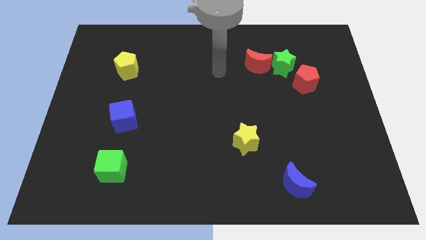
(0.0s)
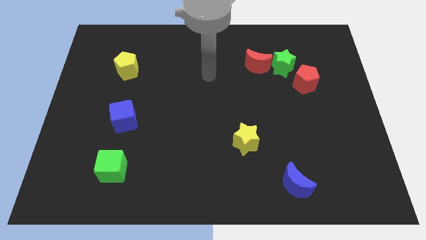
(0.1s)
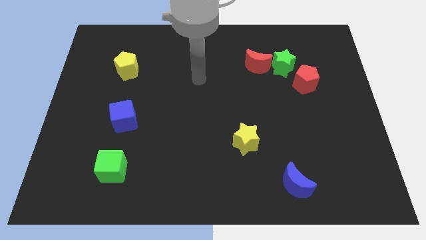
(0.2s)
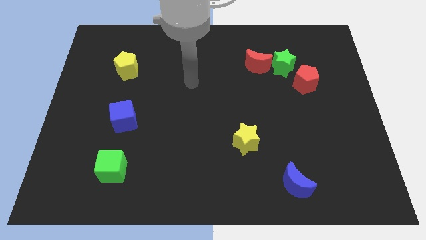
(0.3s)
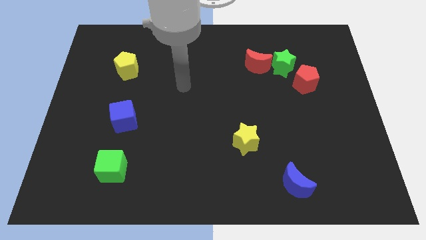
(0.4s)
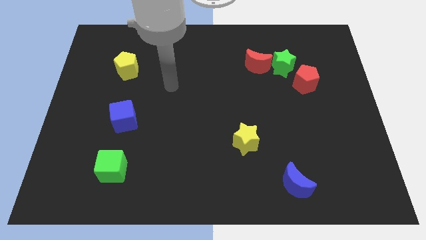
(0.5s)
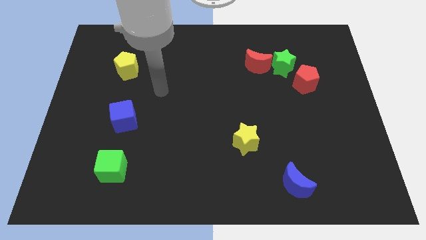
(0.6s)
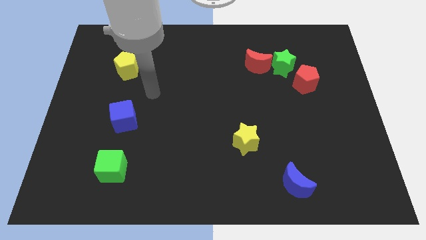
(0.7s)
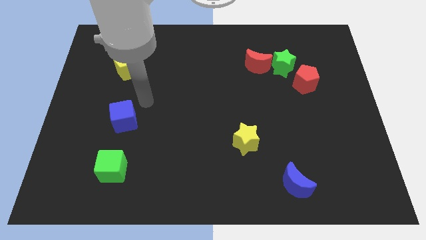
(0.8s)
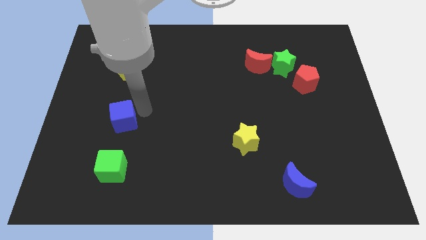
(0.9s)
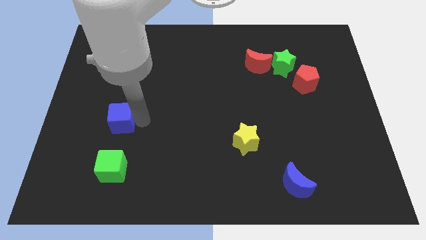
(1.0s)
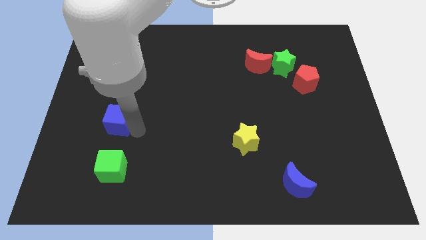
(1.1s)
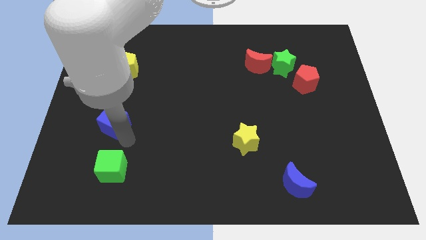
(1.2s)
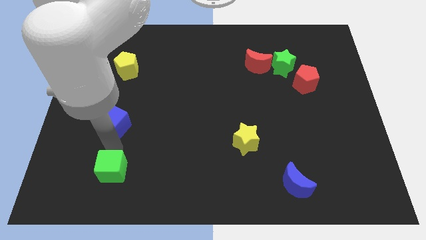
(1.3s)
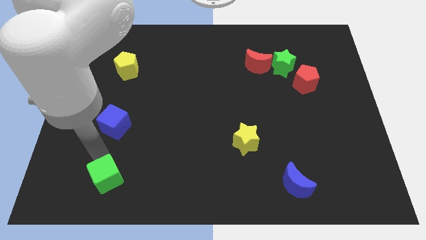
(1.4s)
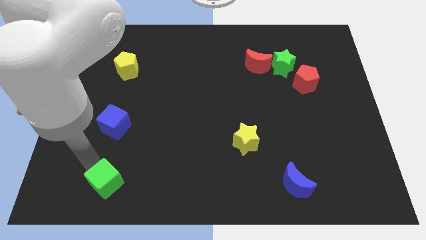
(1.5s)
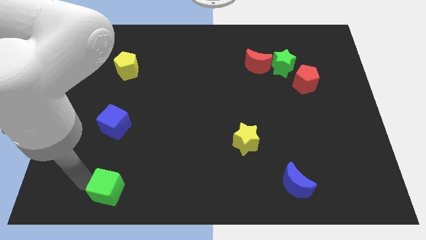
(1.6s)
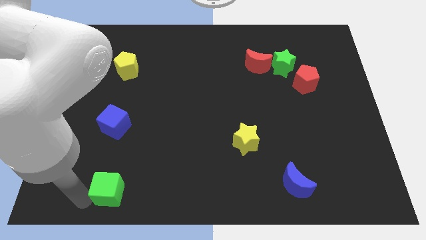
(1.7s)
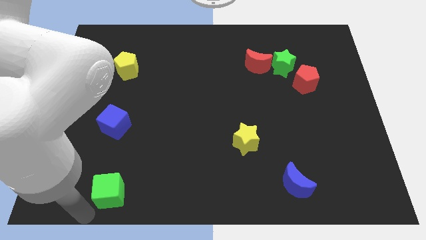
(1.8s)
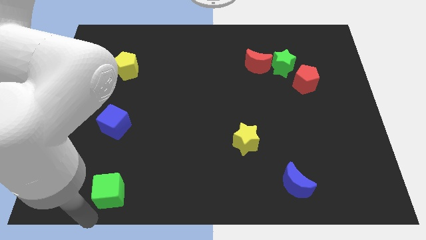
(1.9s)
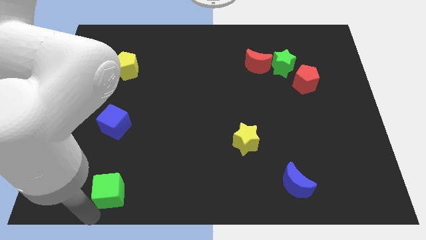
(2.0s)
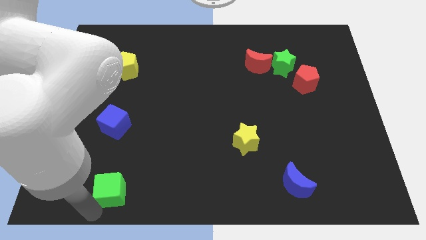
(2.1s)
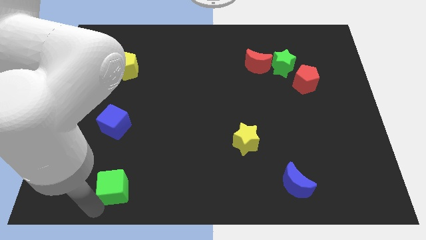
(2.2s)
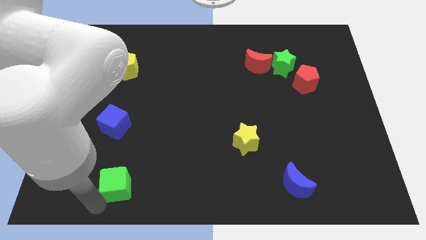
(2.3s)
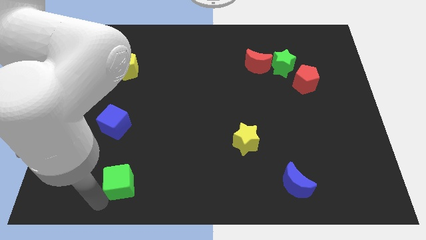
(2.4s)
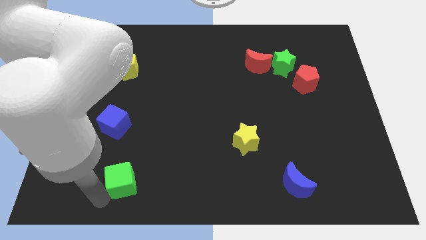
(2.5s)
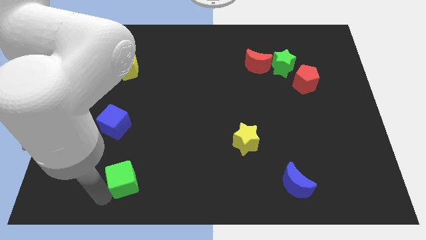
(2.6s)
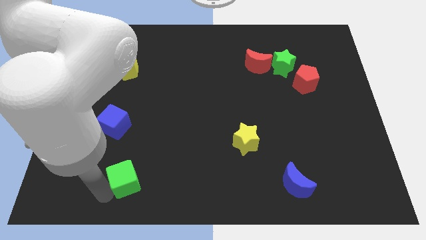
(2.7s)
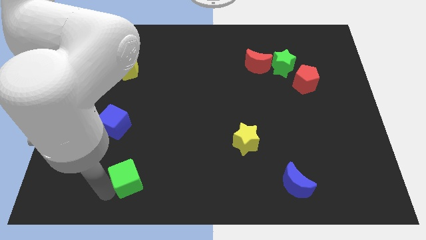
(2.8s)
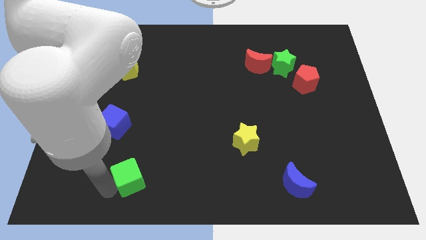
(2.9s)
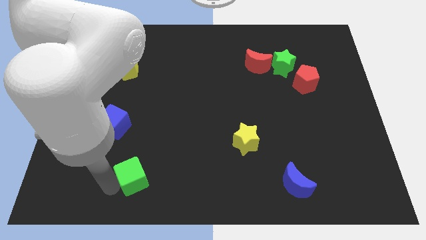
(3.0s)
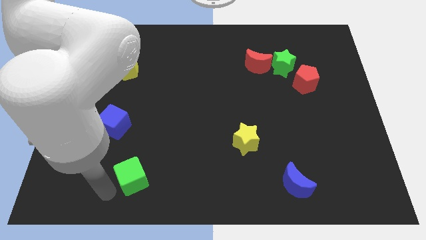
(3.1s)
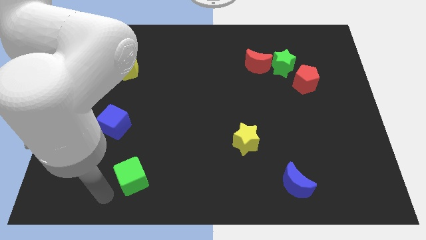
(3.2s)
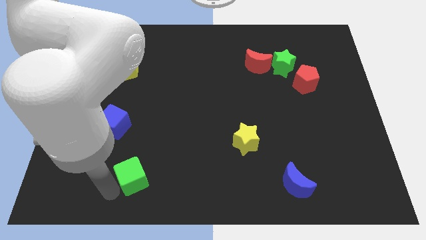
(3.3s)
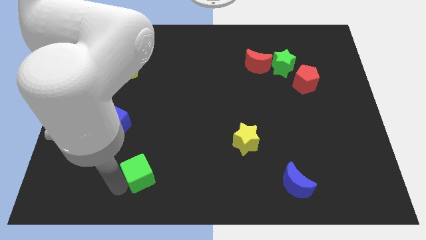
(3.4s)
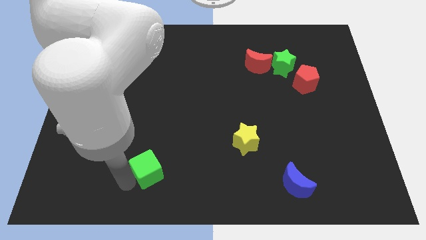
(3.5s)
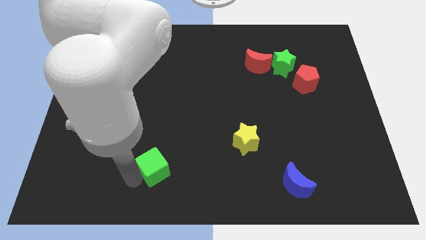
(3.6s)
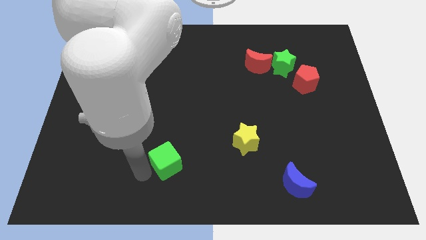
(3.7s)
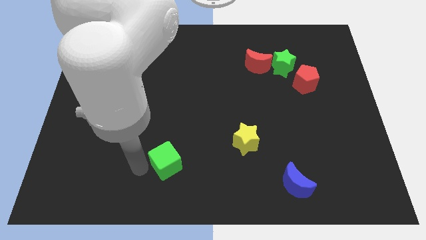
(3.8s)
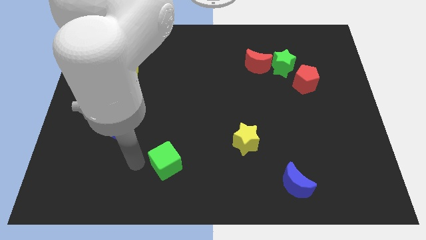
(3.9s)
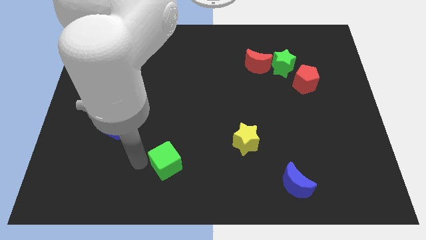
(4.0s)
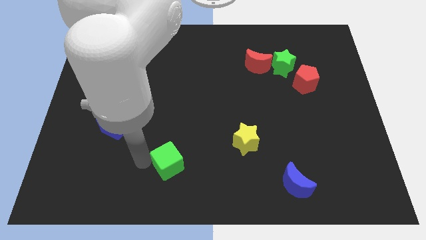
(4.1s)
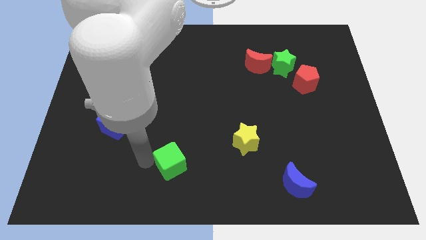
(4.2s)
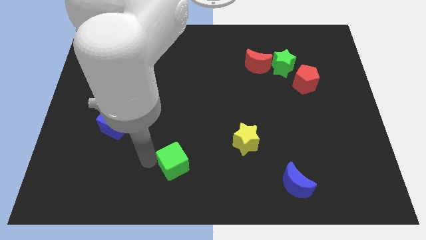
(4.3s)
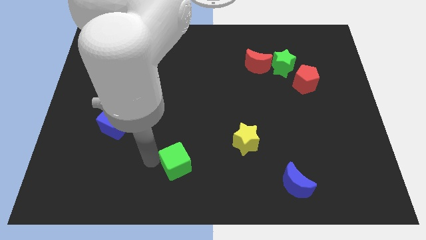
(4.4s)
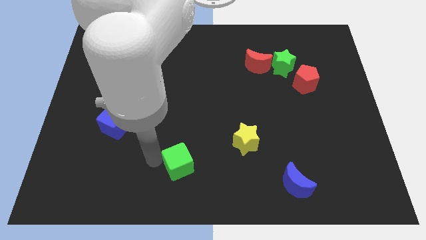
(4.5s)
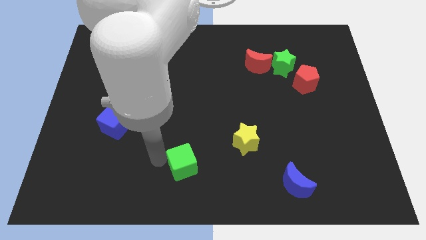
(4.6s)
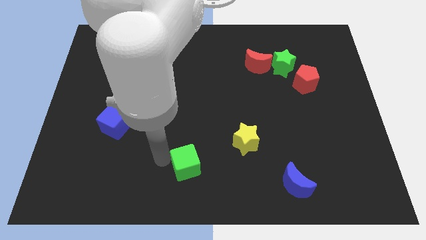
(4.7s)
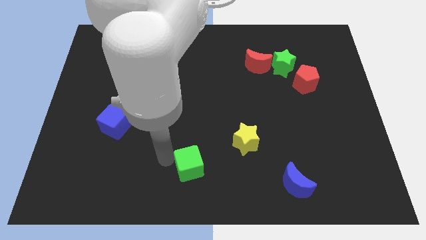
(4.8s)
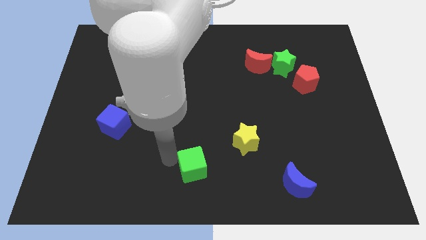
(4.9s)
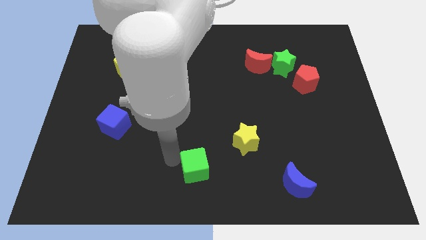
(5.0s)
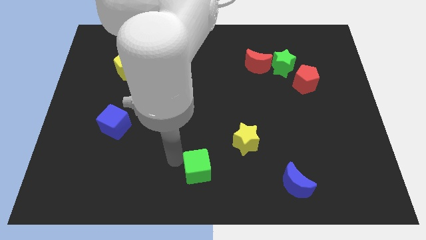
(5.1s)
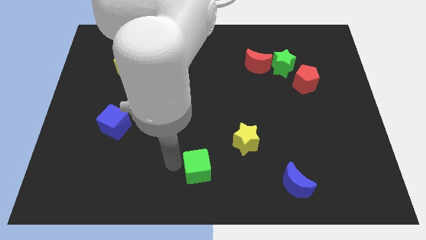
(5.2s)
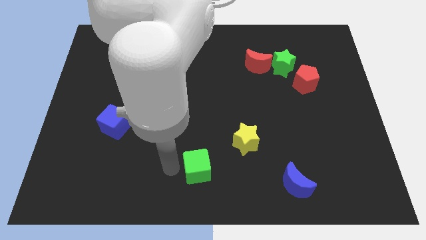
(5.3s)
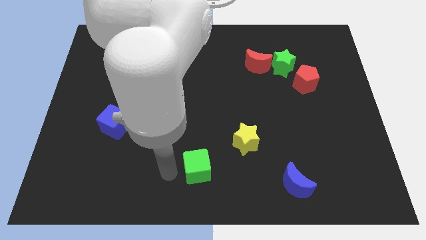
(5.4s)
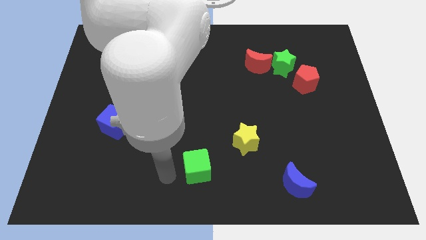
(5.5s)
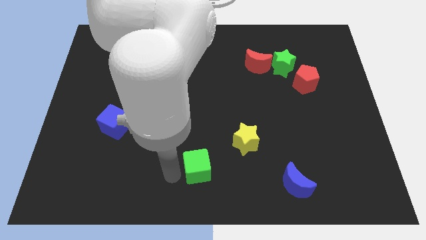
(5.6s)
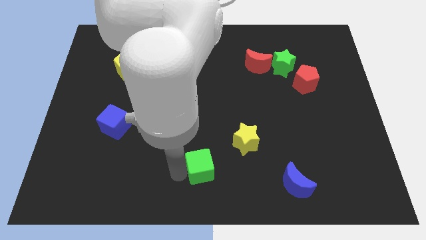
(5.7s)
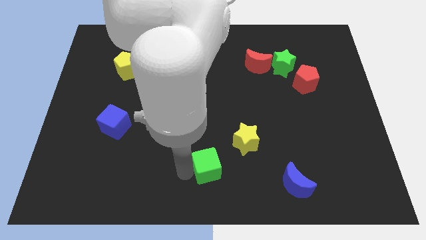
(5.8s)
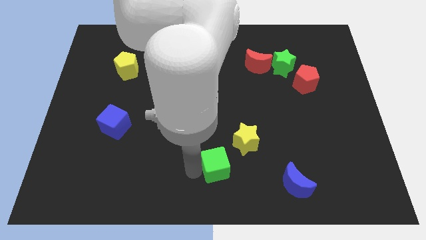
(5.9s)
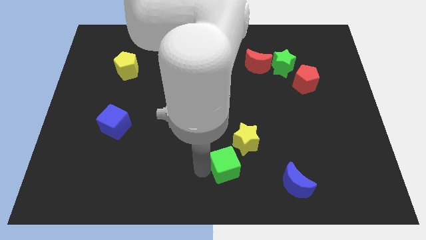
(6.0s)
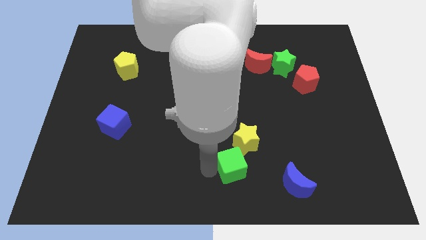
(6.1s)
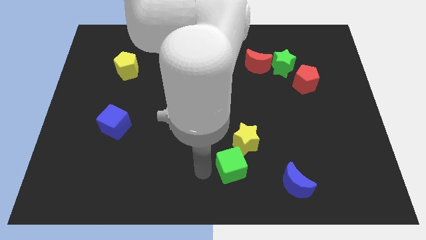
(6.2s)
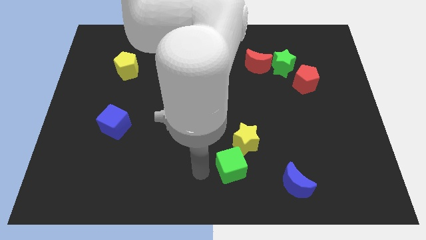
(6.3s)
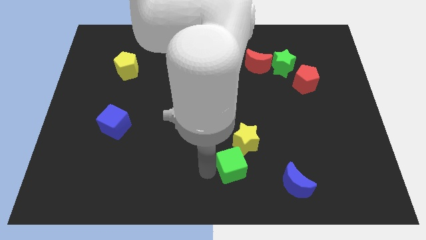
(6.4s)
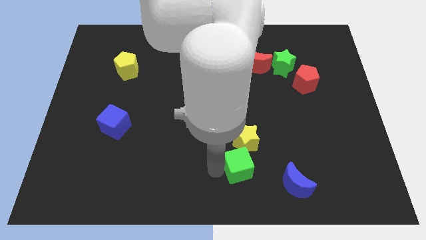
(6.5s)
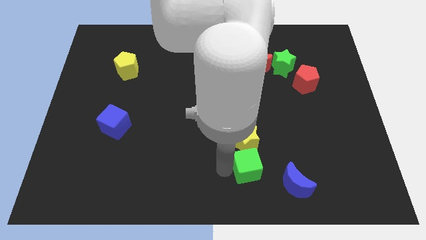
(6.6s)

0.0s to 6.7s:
move the green cube diagonally up and to the left of the blue moon

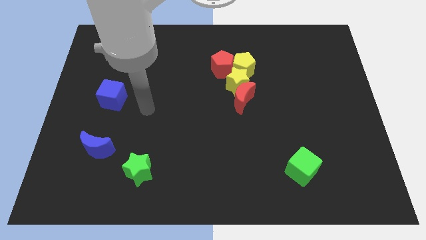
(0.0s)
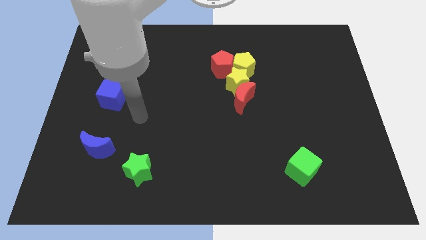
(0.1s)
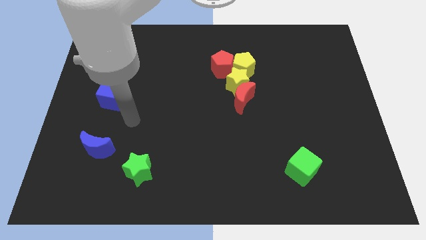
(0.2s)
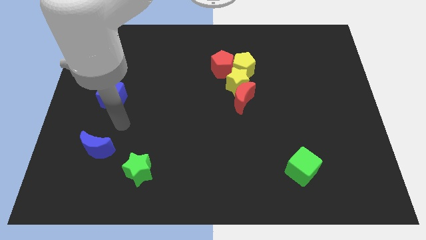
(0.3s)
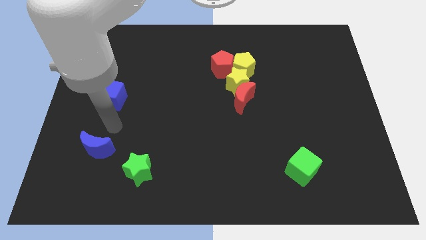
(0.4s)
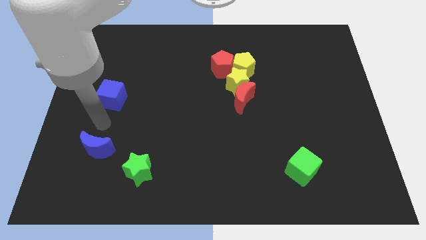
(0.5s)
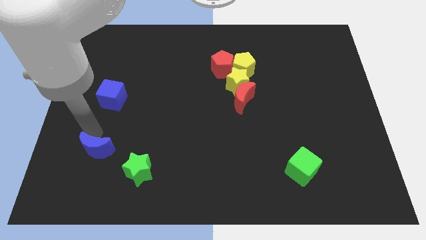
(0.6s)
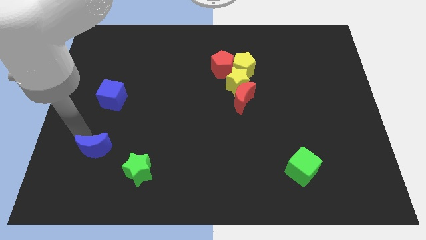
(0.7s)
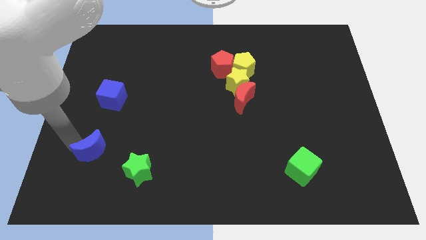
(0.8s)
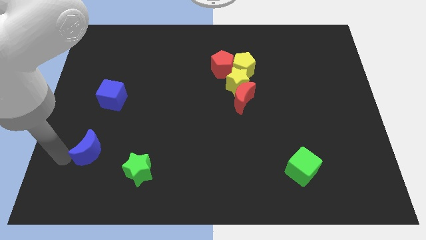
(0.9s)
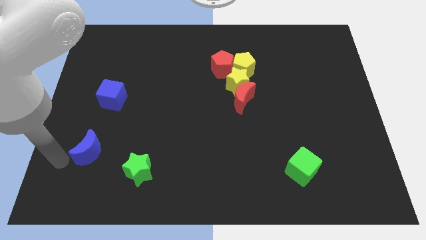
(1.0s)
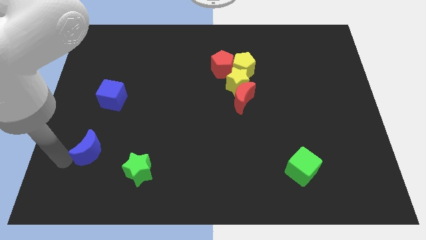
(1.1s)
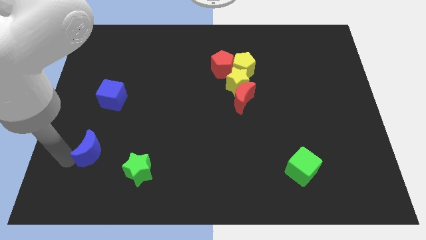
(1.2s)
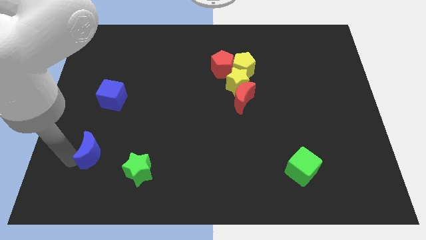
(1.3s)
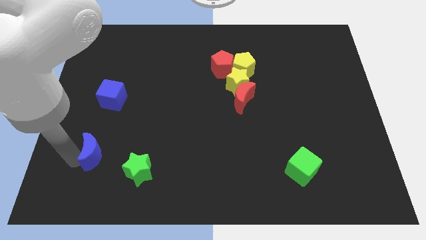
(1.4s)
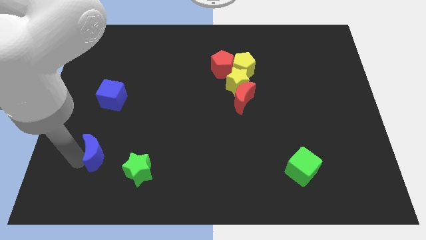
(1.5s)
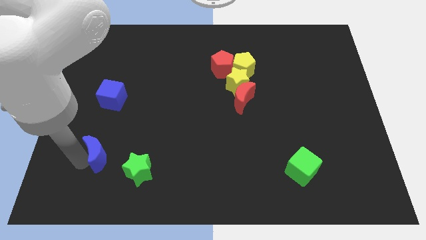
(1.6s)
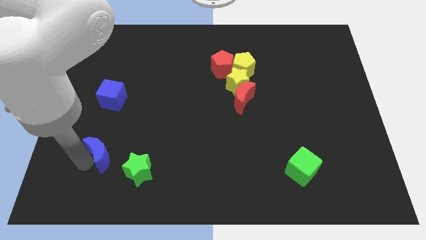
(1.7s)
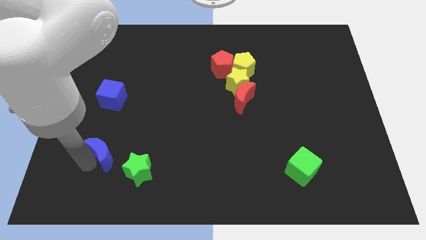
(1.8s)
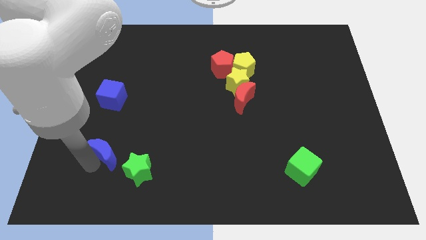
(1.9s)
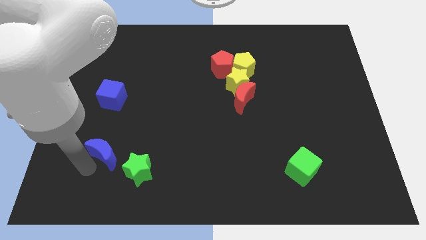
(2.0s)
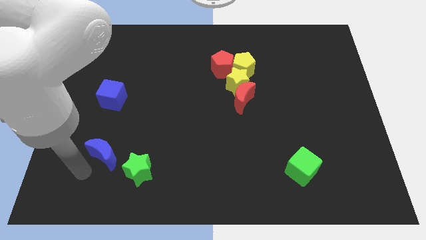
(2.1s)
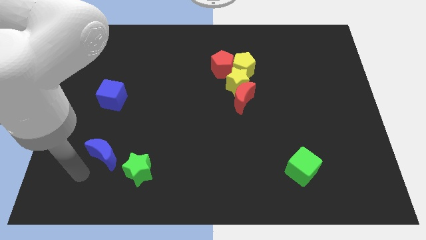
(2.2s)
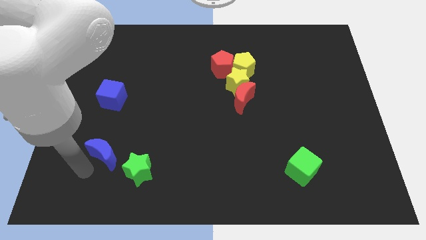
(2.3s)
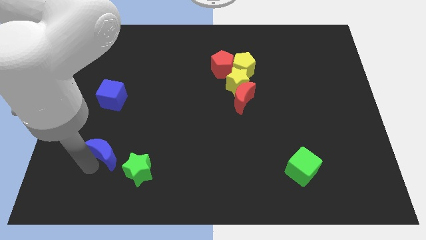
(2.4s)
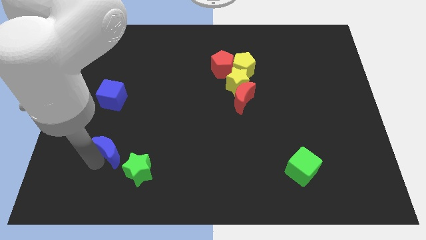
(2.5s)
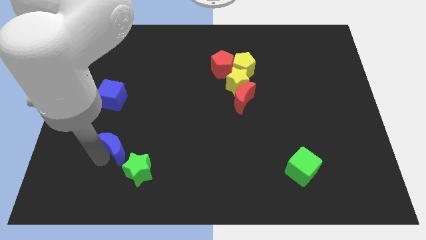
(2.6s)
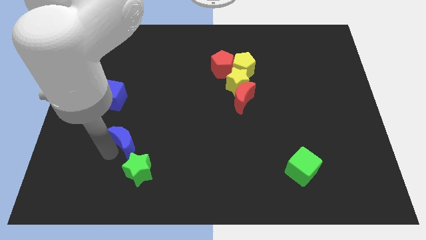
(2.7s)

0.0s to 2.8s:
put the blue moon to the top side of the green star
